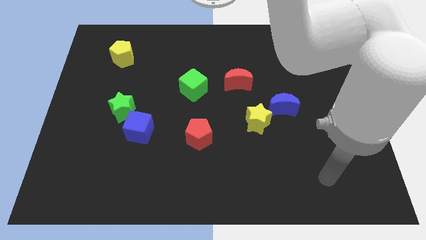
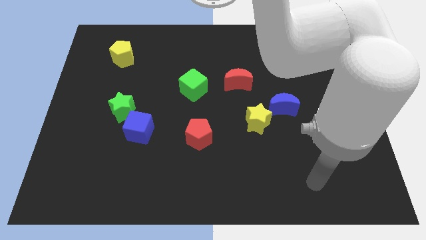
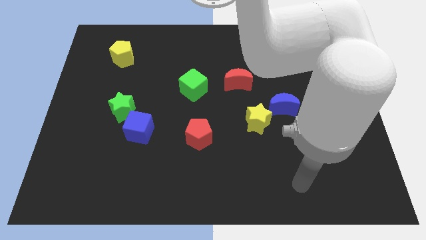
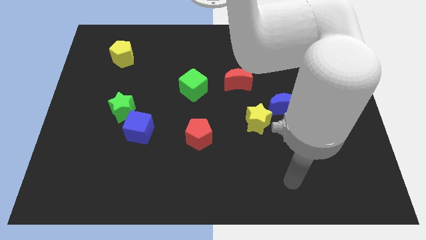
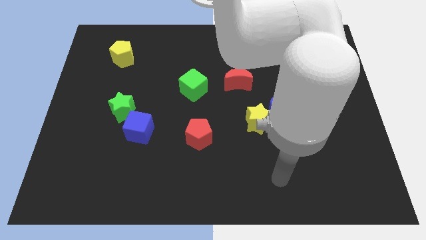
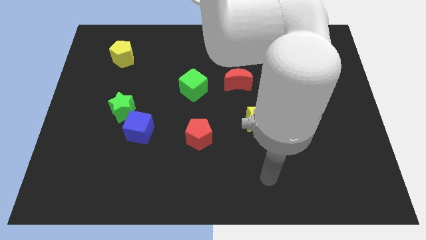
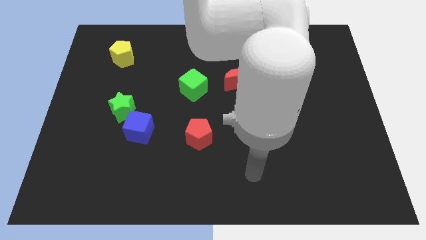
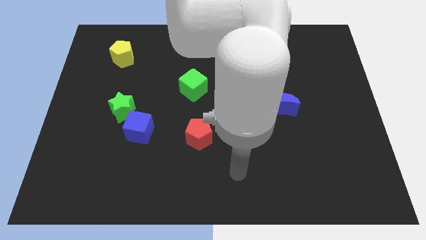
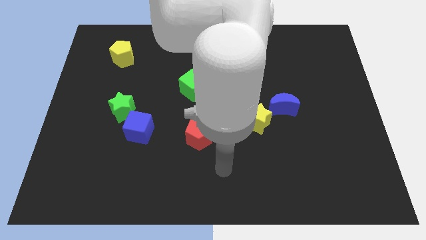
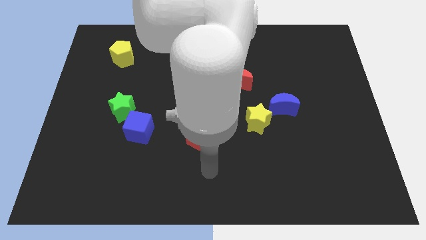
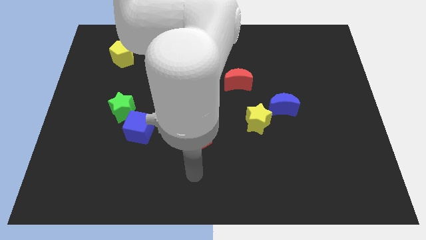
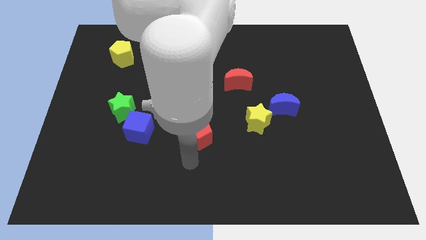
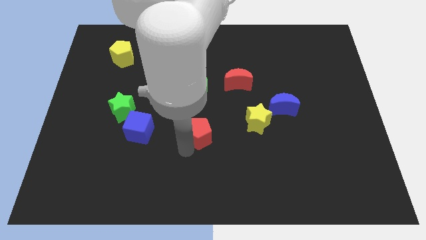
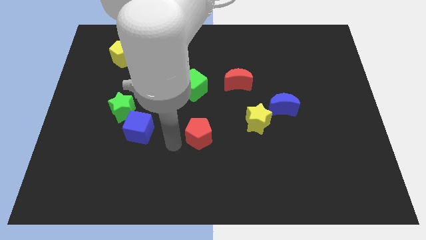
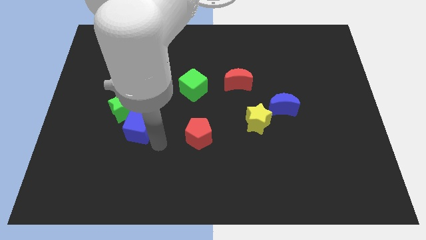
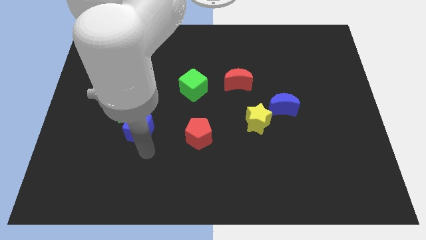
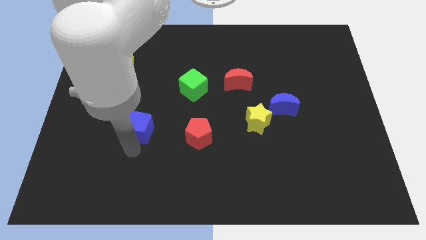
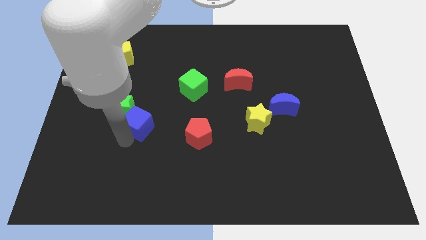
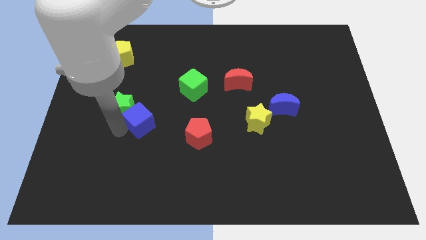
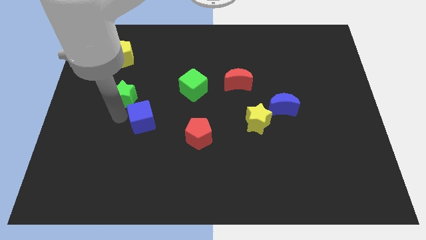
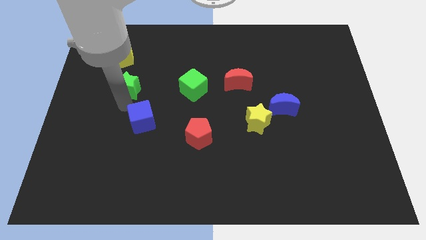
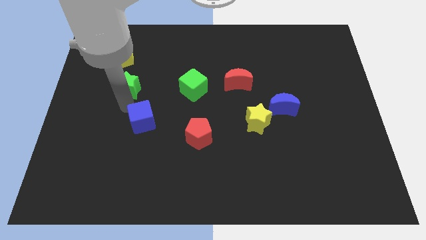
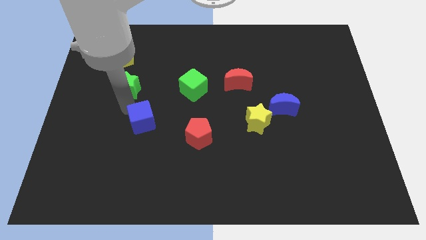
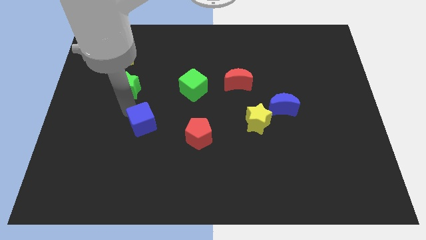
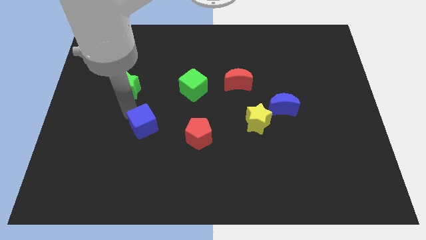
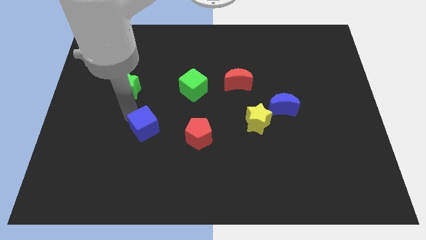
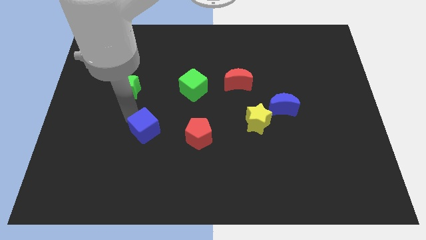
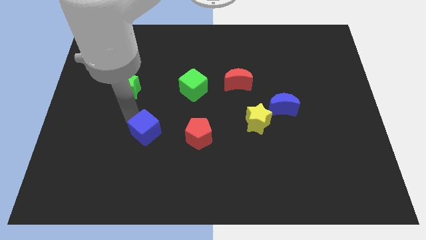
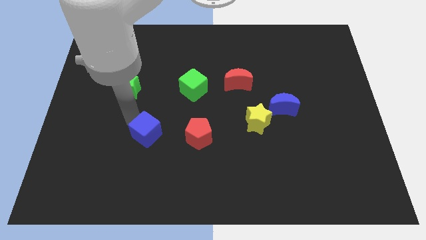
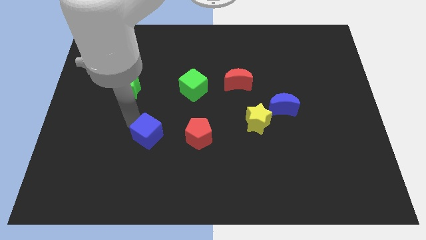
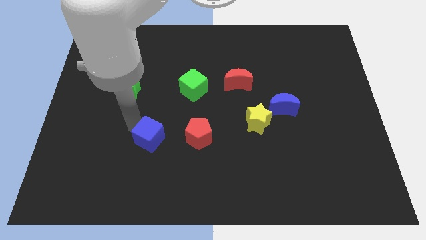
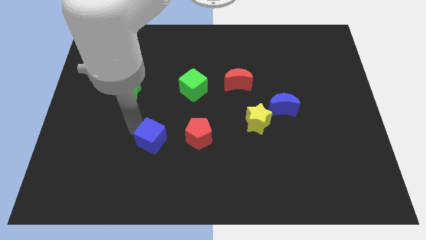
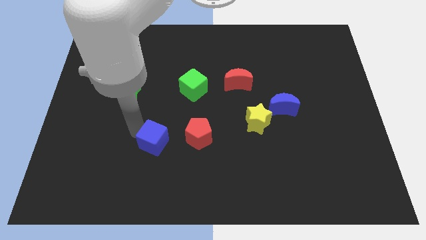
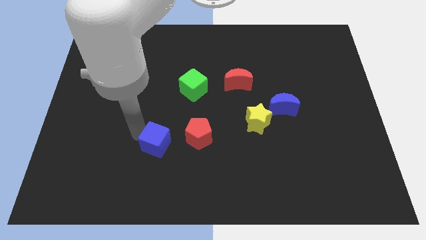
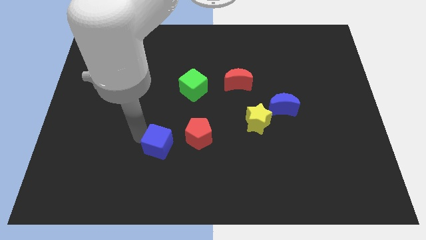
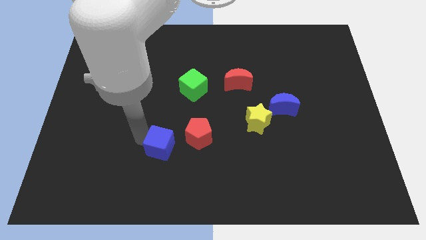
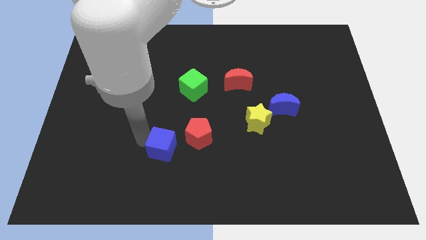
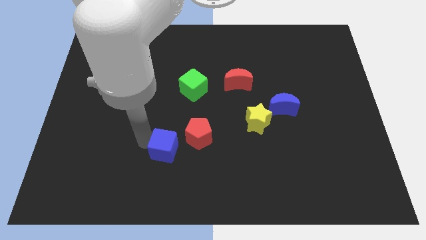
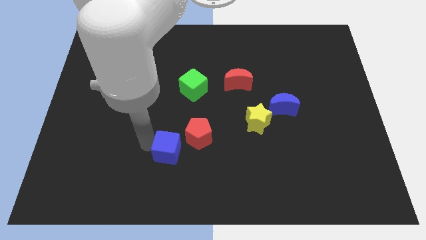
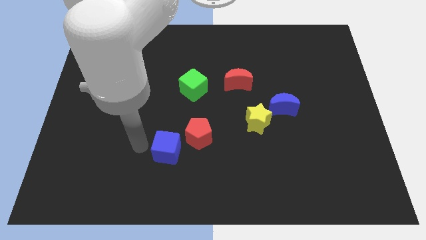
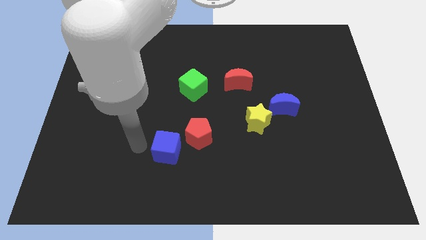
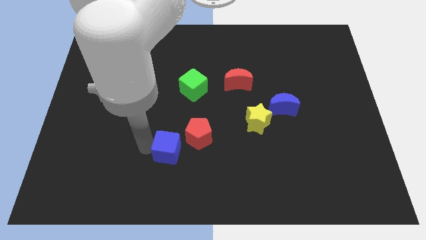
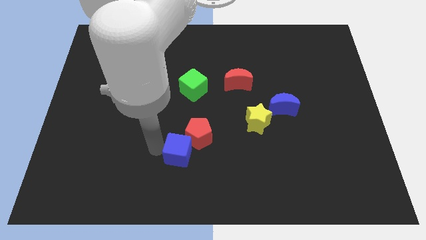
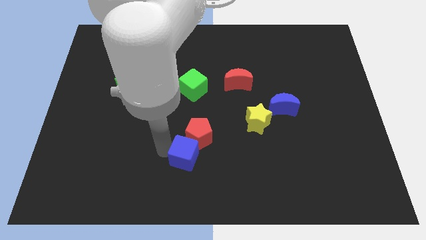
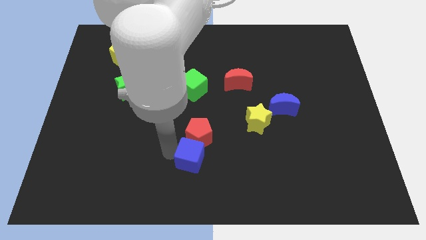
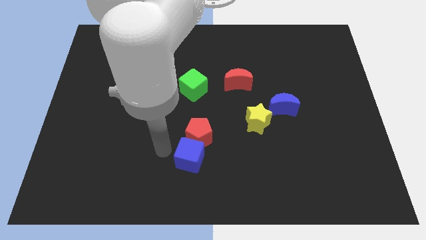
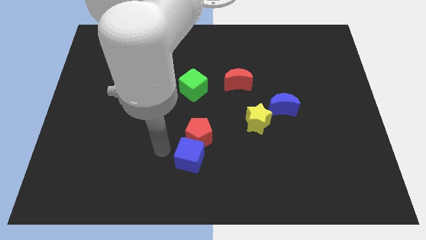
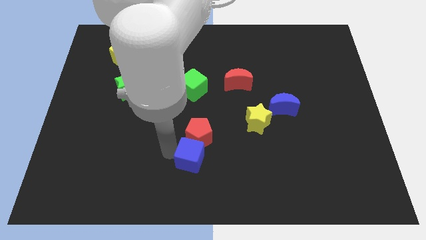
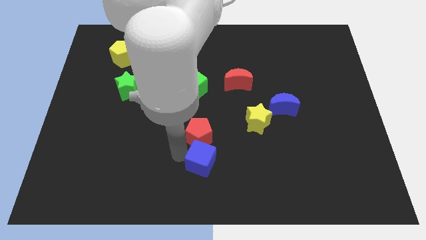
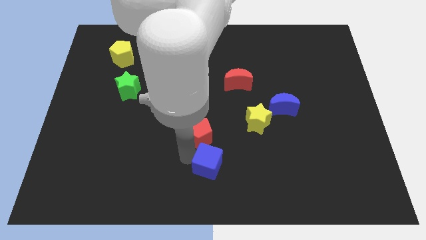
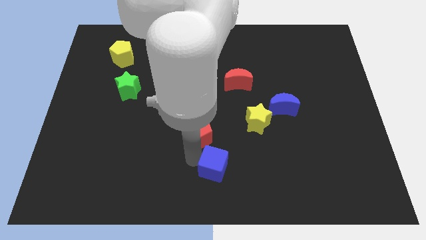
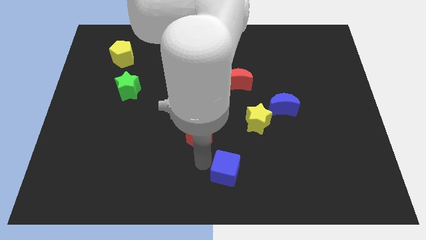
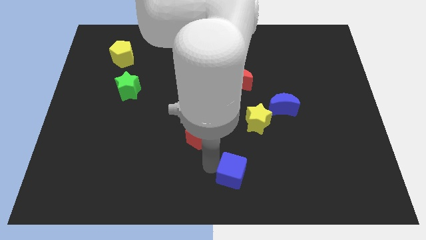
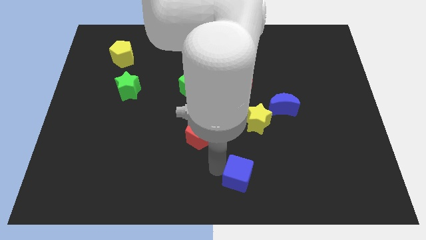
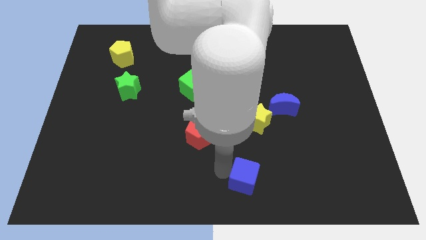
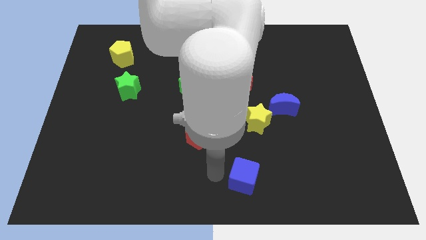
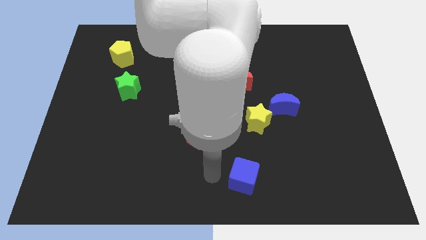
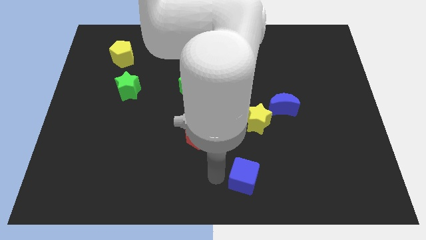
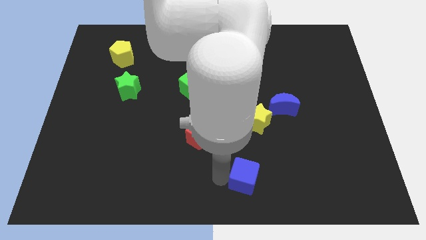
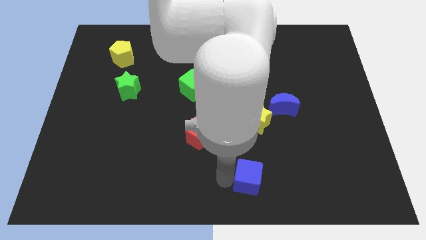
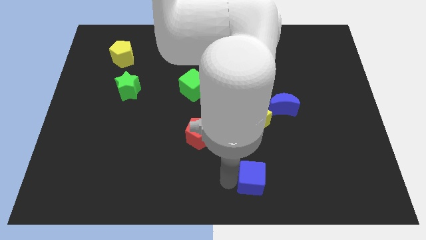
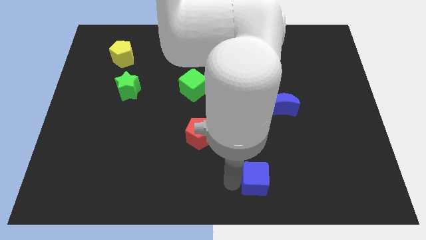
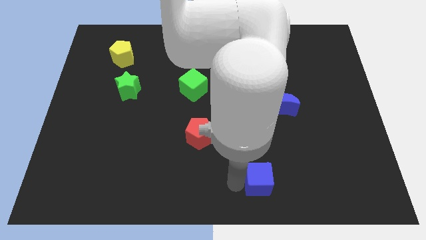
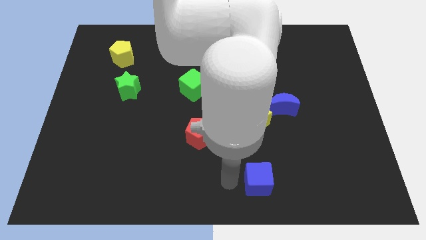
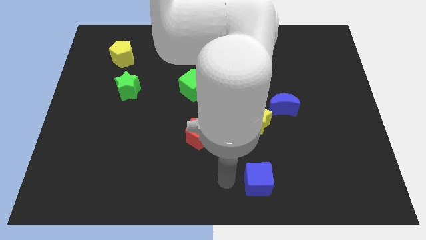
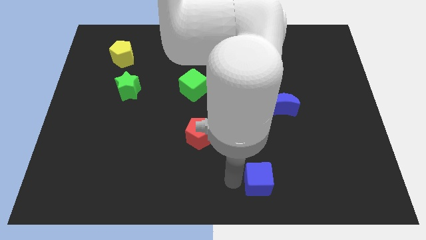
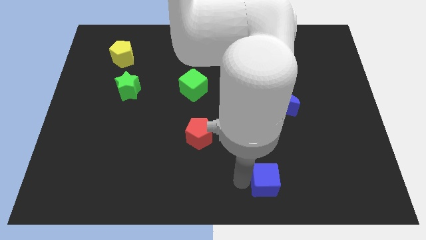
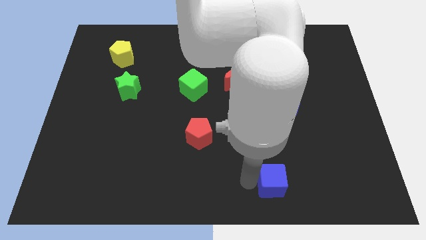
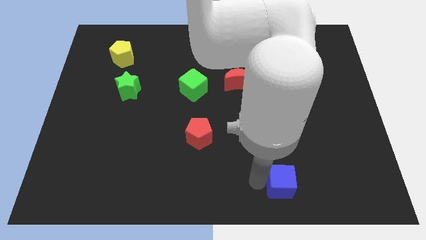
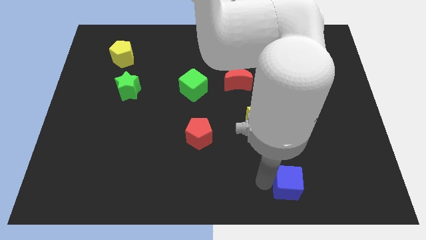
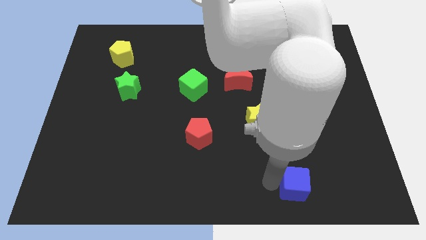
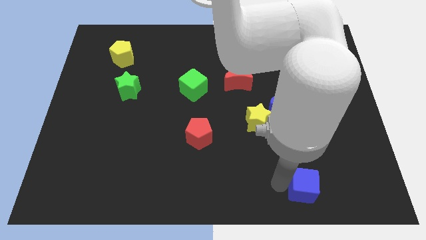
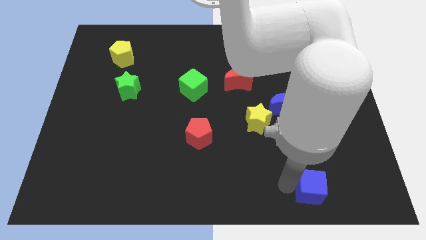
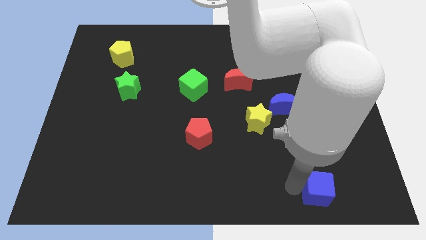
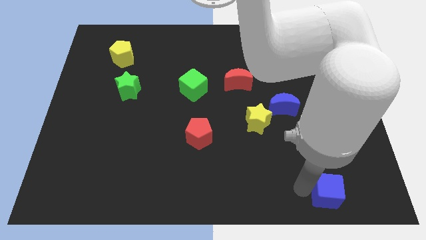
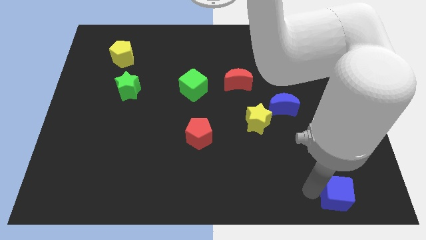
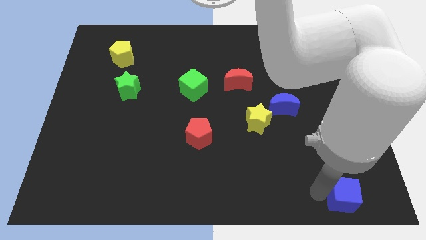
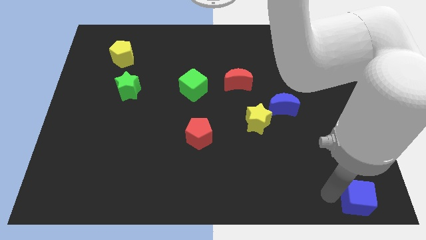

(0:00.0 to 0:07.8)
push the blue cube to the bottom right
